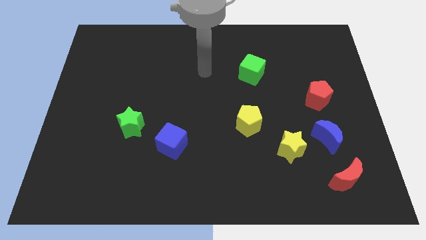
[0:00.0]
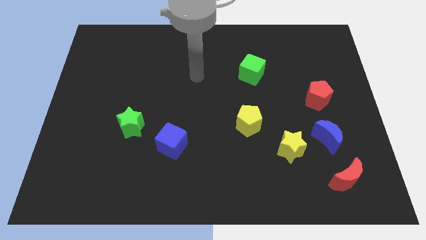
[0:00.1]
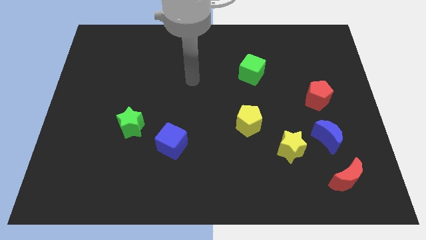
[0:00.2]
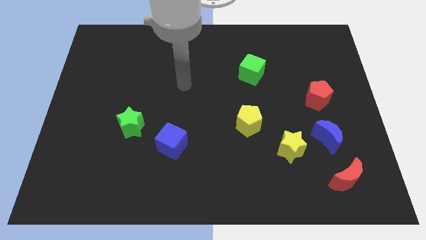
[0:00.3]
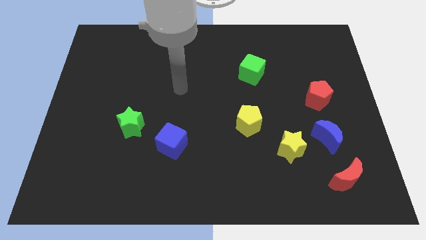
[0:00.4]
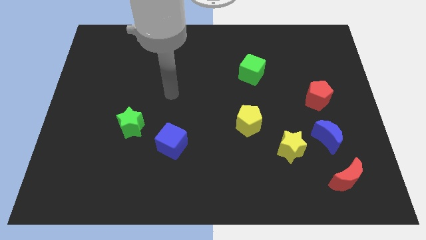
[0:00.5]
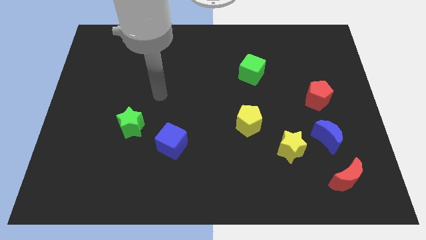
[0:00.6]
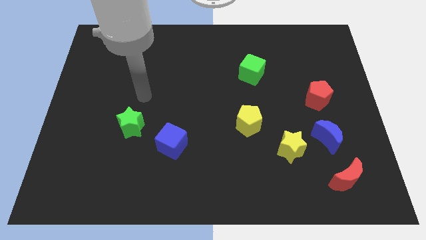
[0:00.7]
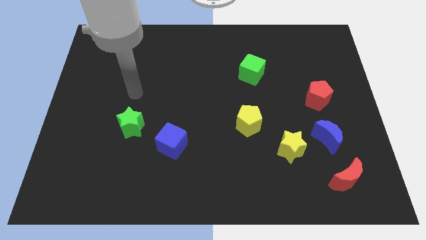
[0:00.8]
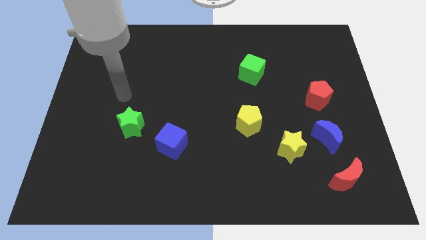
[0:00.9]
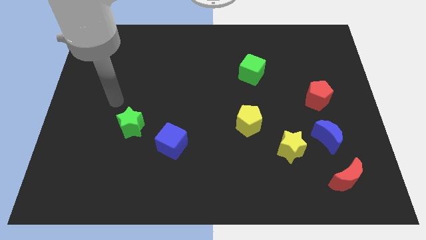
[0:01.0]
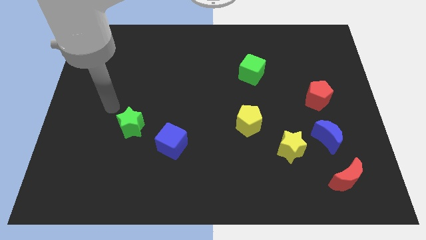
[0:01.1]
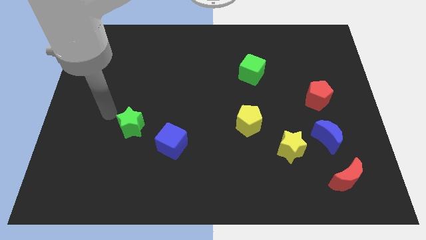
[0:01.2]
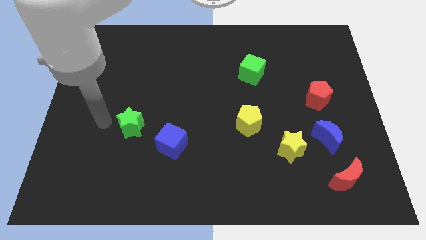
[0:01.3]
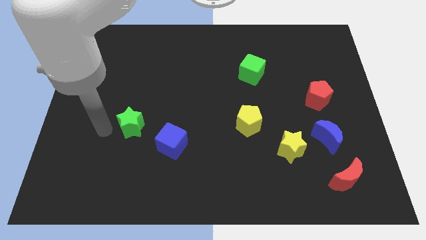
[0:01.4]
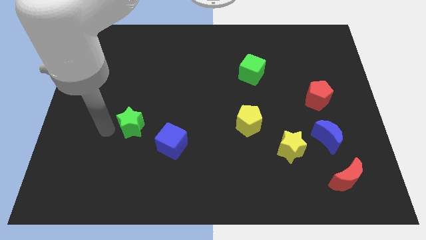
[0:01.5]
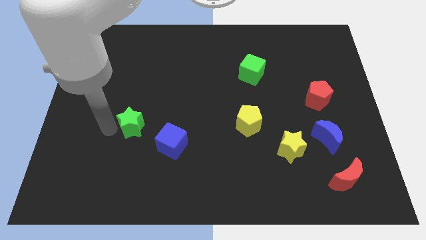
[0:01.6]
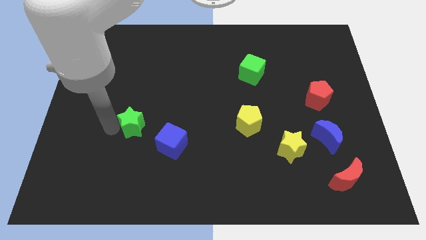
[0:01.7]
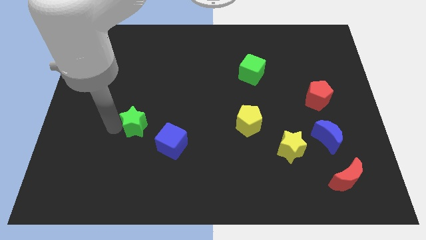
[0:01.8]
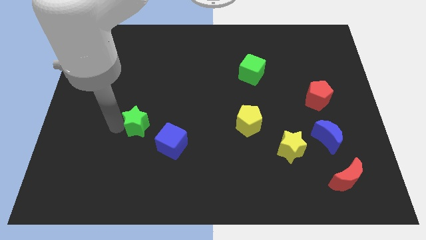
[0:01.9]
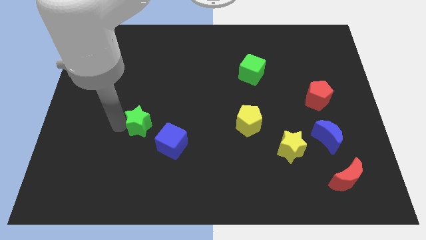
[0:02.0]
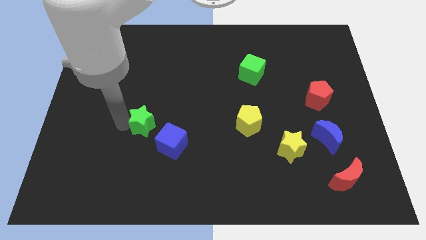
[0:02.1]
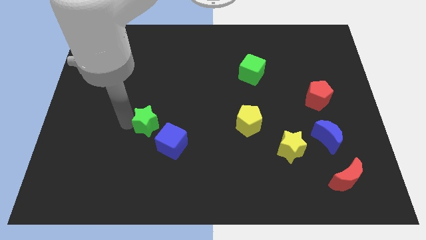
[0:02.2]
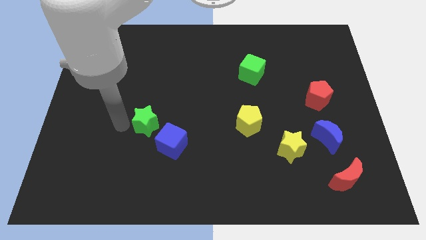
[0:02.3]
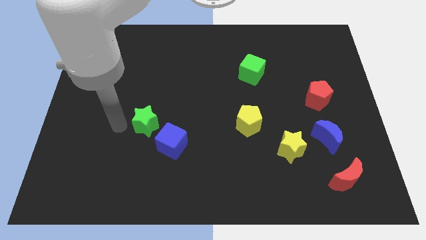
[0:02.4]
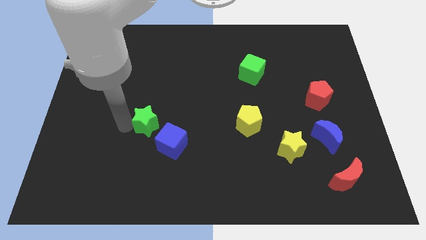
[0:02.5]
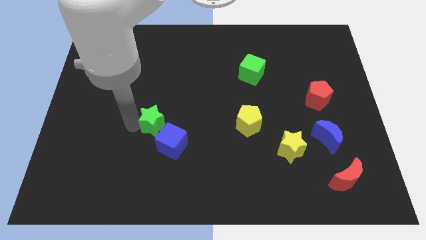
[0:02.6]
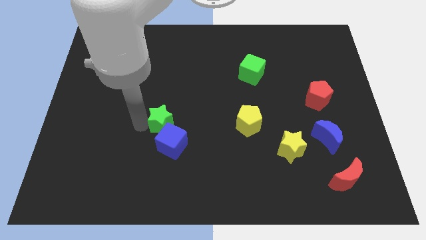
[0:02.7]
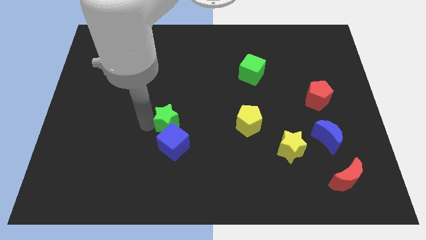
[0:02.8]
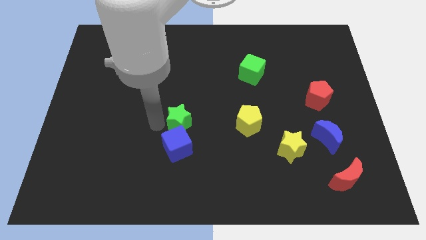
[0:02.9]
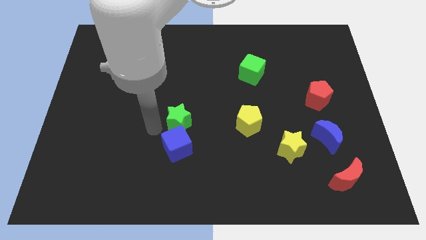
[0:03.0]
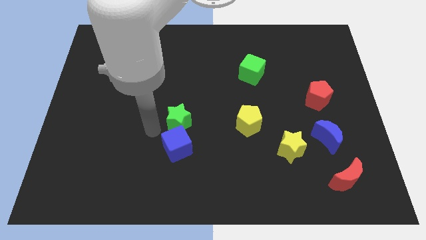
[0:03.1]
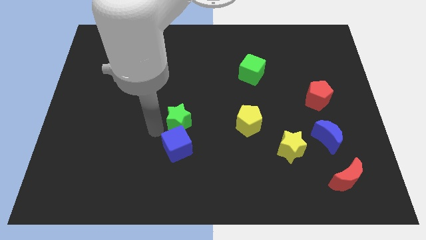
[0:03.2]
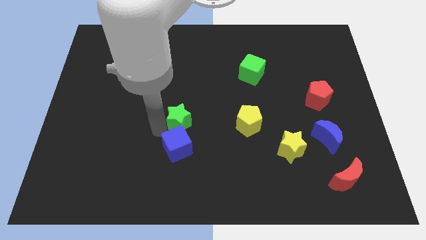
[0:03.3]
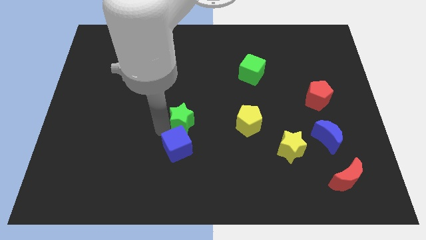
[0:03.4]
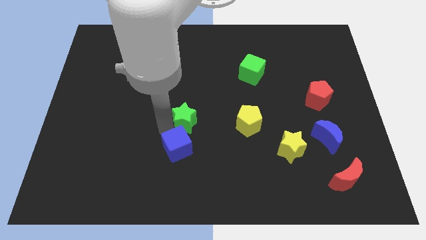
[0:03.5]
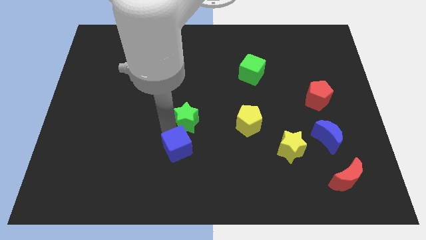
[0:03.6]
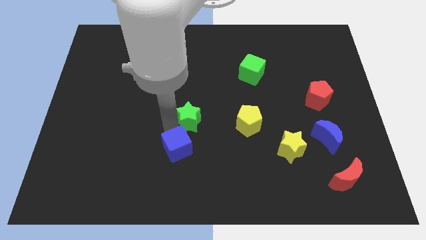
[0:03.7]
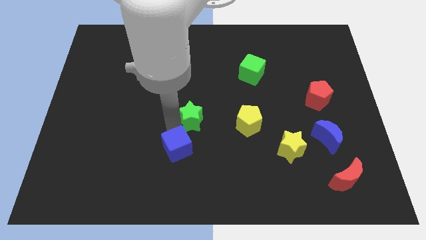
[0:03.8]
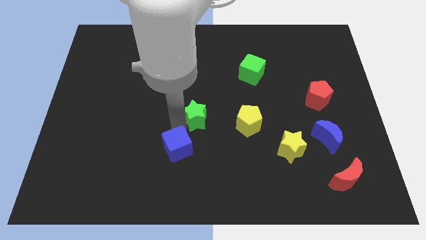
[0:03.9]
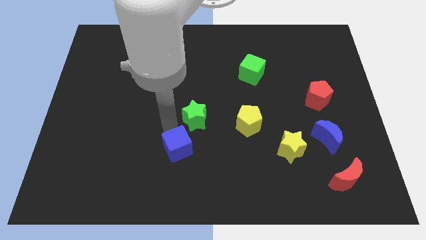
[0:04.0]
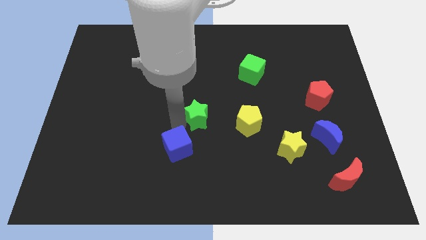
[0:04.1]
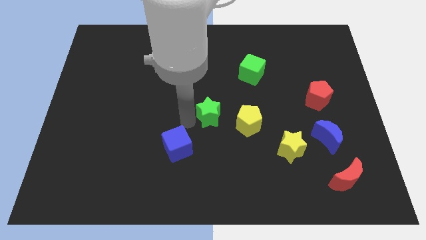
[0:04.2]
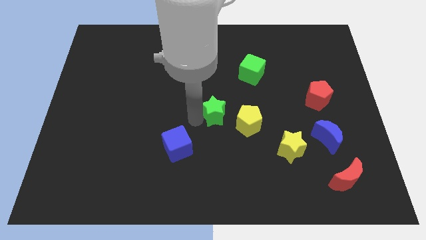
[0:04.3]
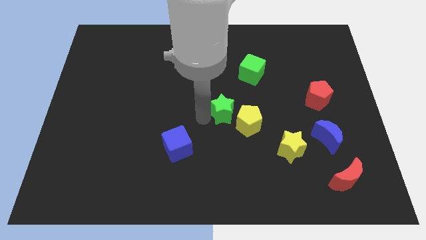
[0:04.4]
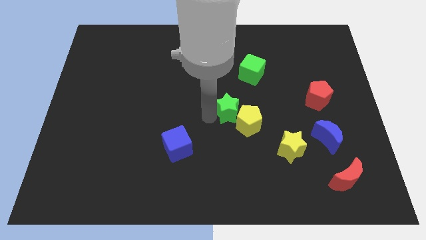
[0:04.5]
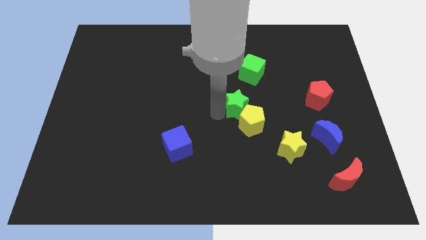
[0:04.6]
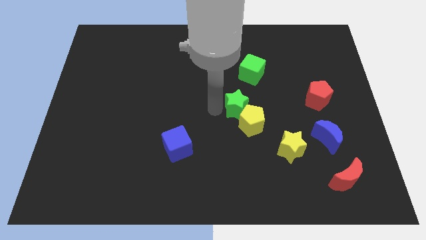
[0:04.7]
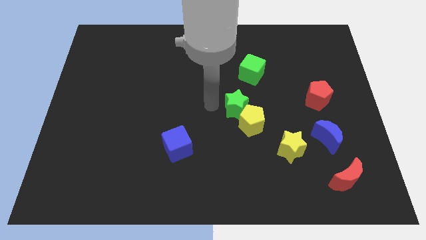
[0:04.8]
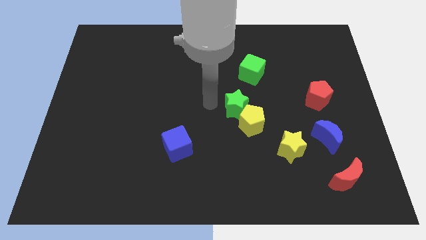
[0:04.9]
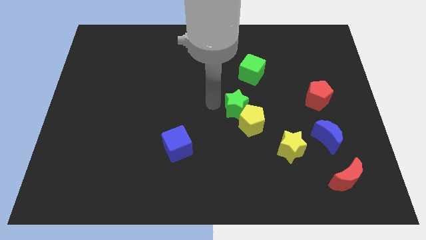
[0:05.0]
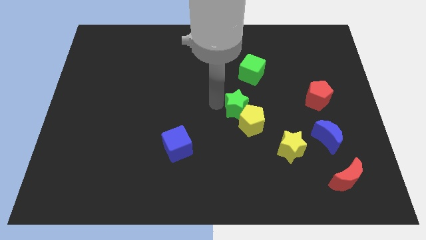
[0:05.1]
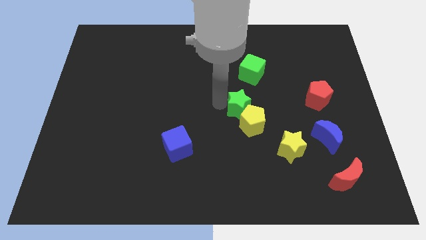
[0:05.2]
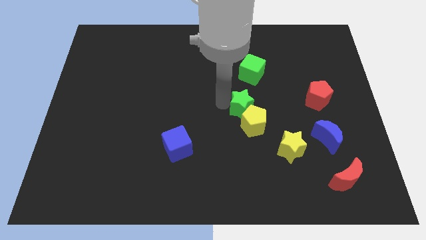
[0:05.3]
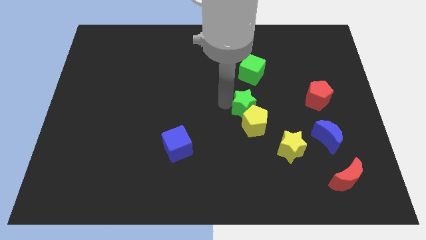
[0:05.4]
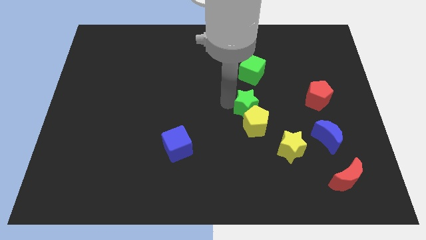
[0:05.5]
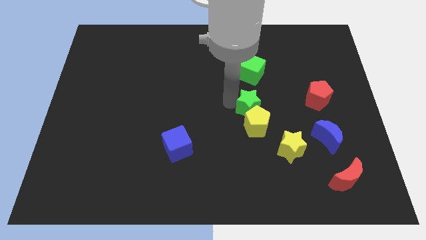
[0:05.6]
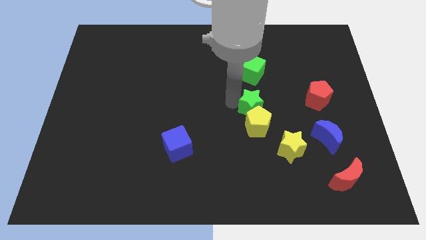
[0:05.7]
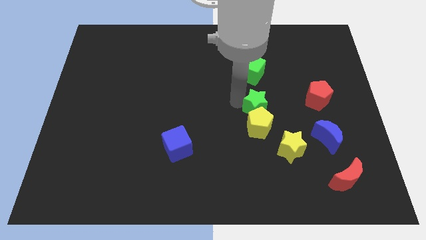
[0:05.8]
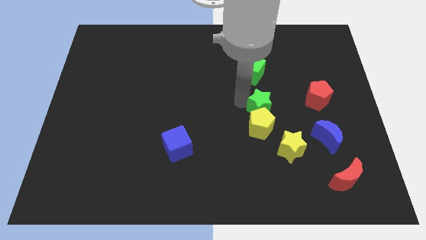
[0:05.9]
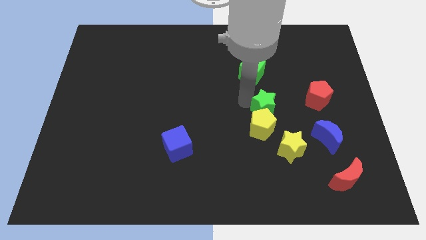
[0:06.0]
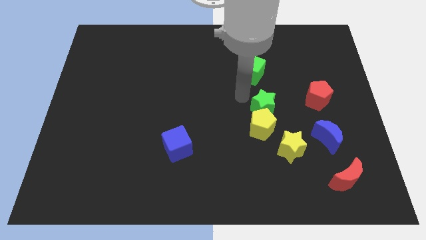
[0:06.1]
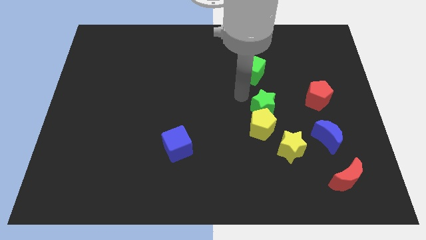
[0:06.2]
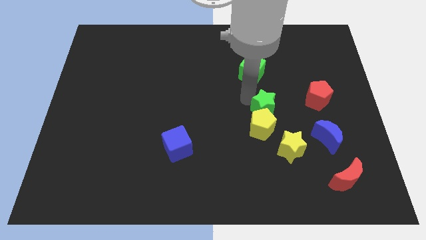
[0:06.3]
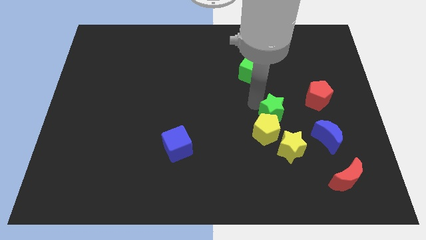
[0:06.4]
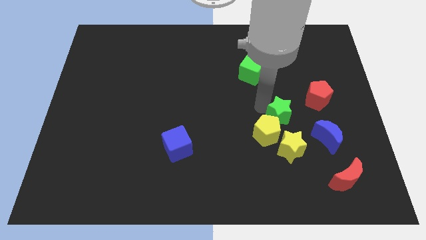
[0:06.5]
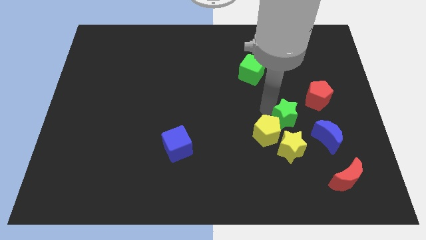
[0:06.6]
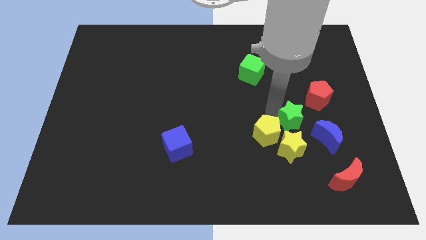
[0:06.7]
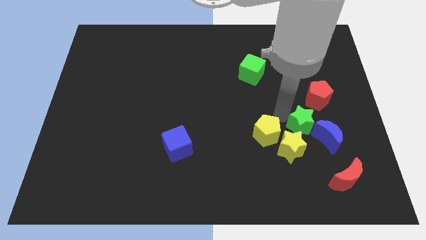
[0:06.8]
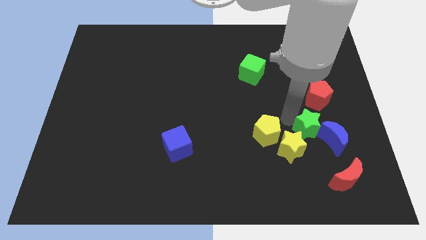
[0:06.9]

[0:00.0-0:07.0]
slide the green star to the blue moon

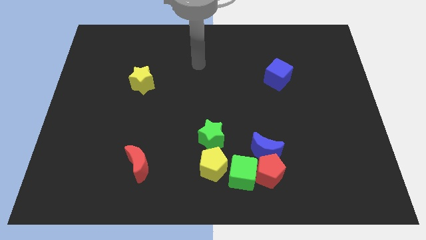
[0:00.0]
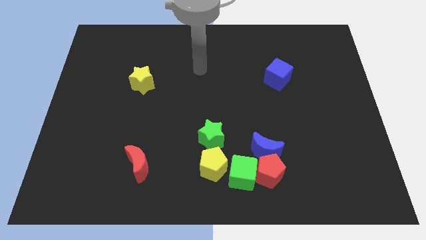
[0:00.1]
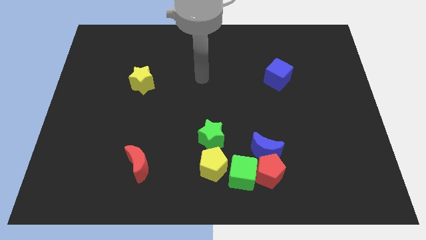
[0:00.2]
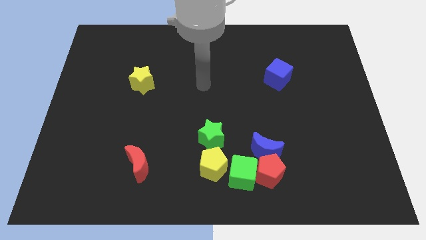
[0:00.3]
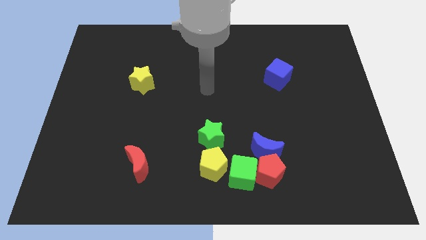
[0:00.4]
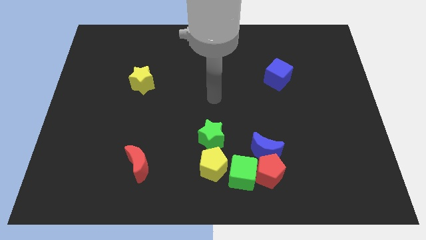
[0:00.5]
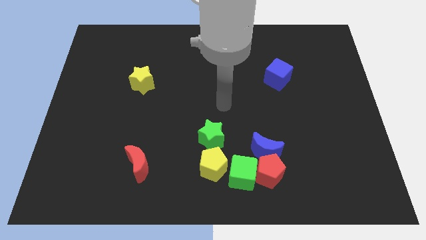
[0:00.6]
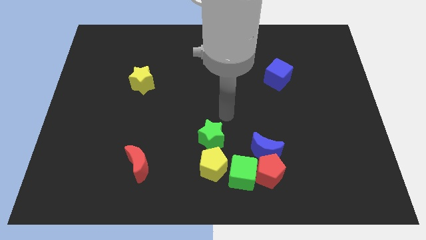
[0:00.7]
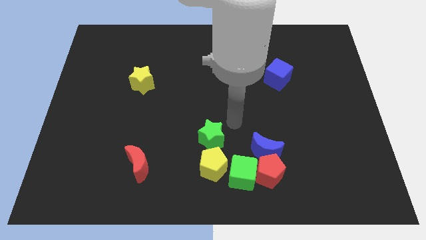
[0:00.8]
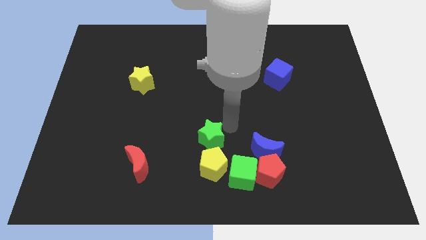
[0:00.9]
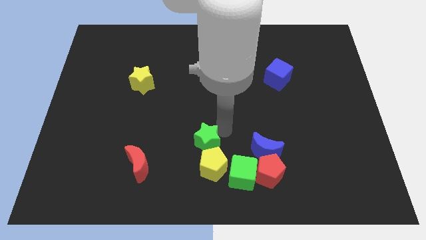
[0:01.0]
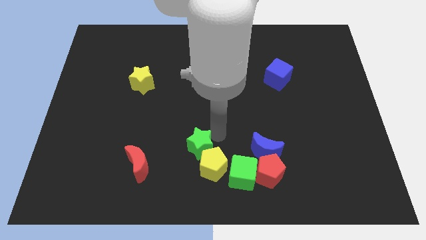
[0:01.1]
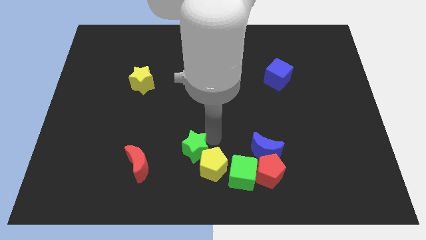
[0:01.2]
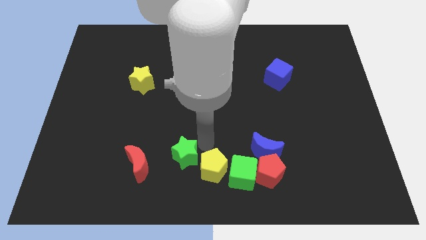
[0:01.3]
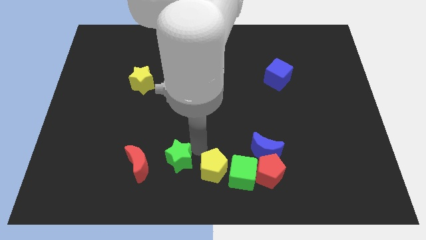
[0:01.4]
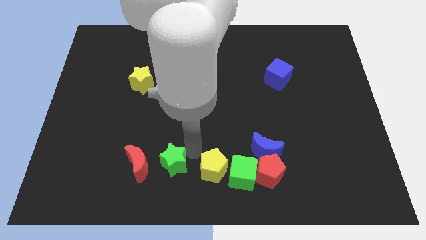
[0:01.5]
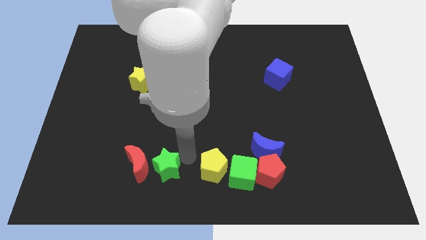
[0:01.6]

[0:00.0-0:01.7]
push the green star next to the red moon
